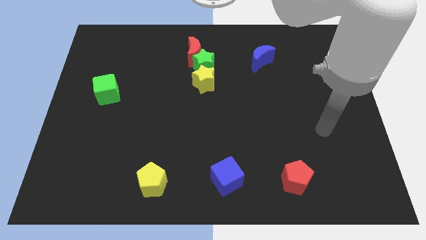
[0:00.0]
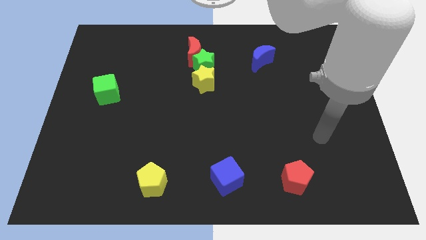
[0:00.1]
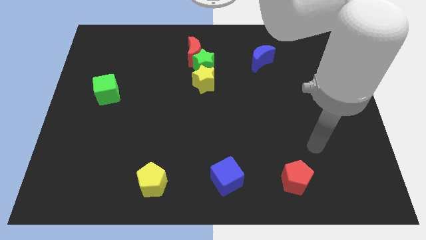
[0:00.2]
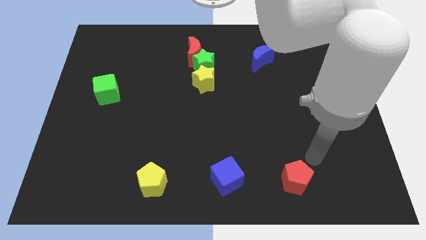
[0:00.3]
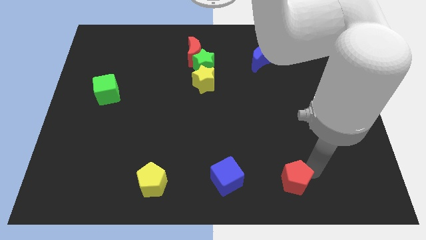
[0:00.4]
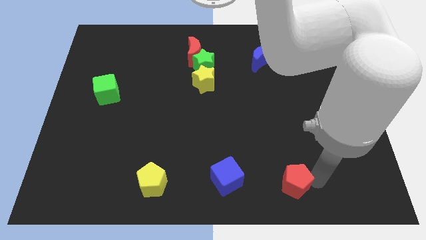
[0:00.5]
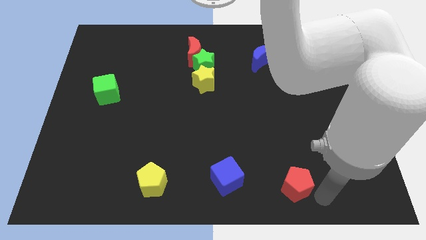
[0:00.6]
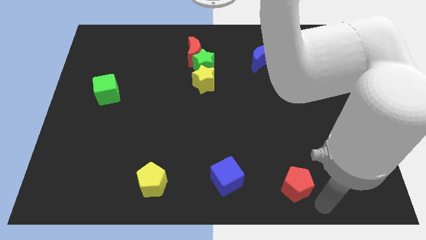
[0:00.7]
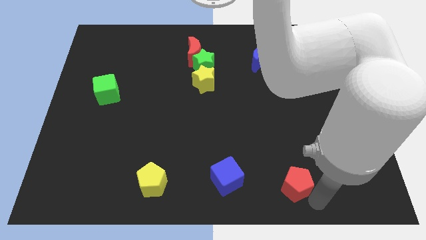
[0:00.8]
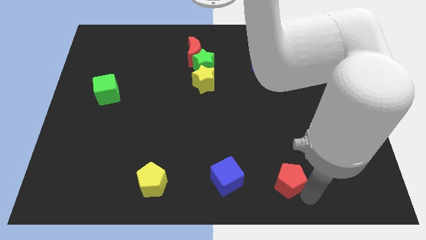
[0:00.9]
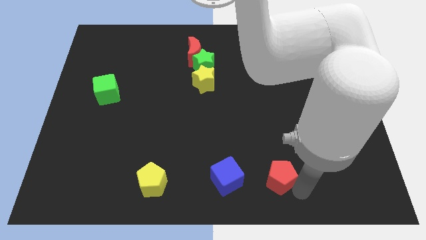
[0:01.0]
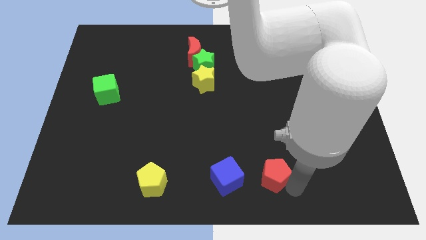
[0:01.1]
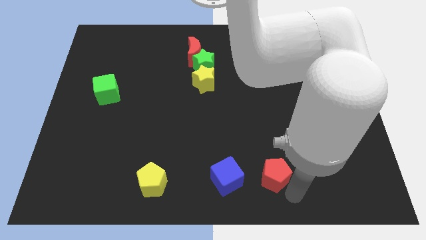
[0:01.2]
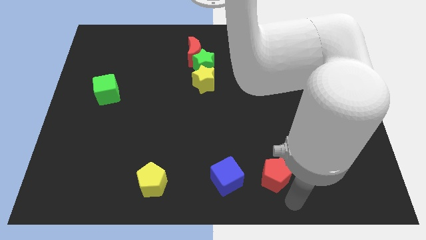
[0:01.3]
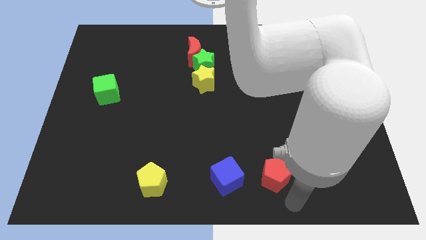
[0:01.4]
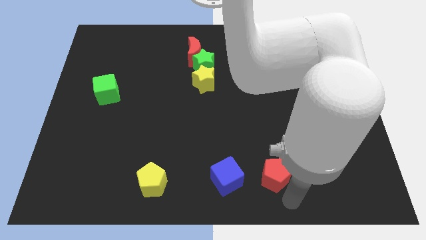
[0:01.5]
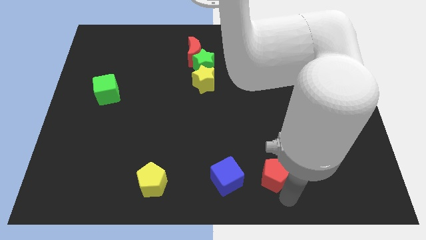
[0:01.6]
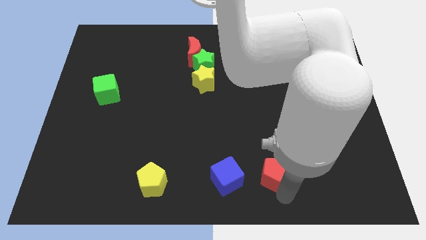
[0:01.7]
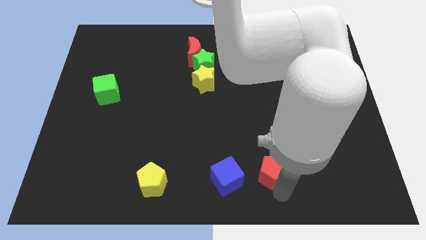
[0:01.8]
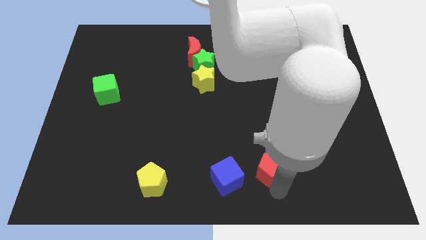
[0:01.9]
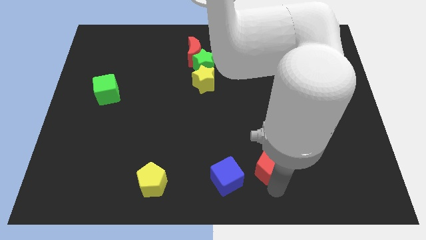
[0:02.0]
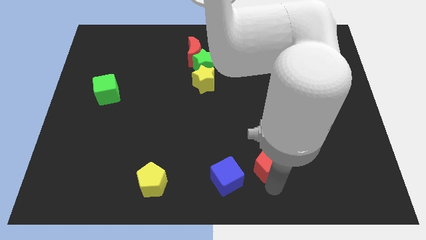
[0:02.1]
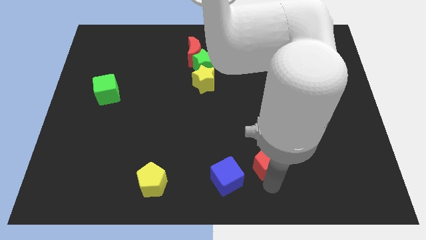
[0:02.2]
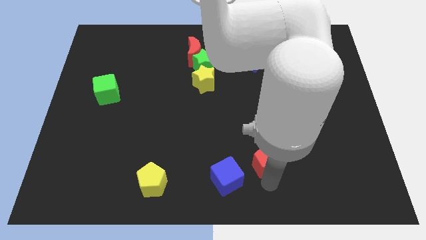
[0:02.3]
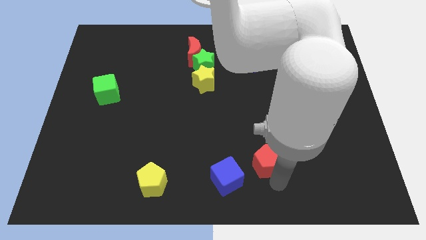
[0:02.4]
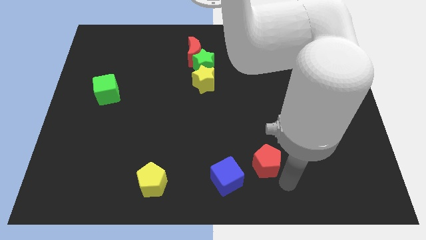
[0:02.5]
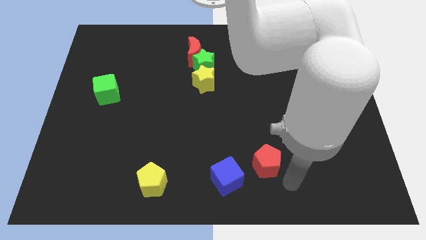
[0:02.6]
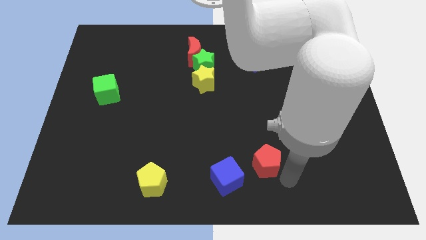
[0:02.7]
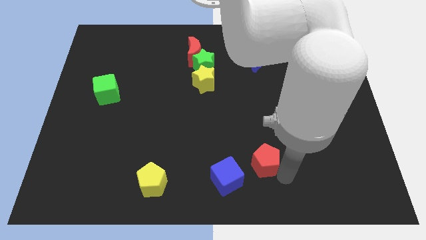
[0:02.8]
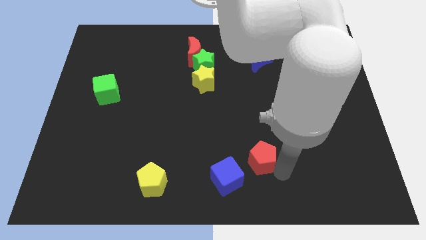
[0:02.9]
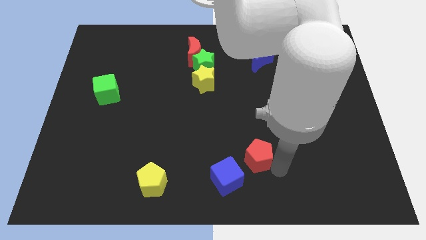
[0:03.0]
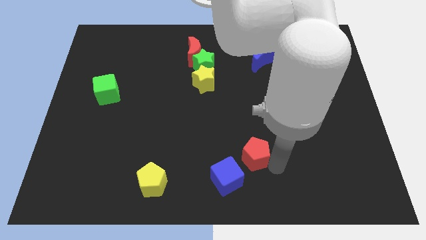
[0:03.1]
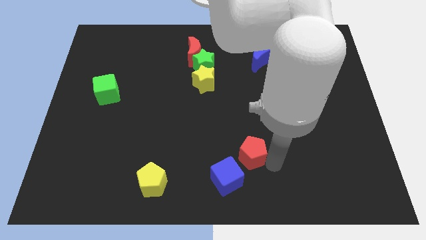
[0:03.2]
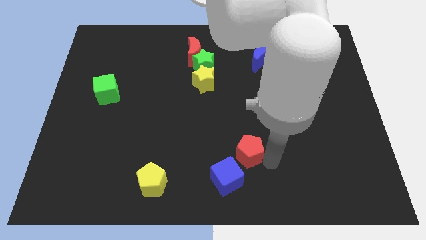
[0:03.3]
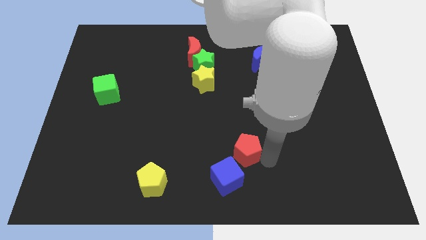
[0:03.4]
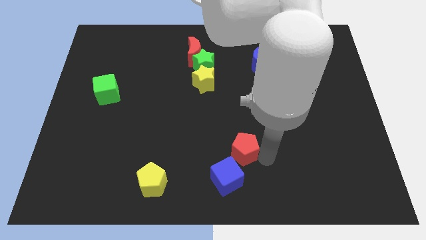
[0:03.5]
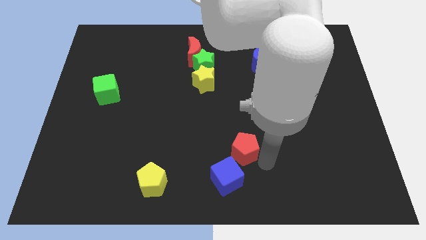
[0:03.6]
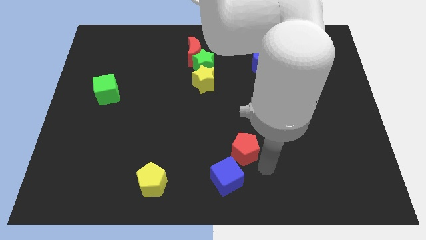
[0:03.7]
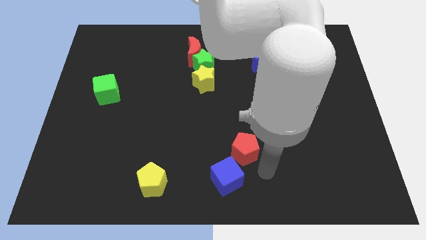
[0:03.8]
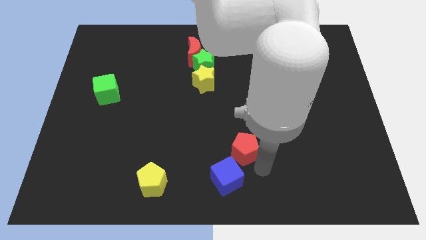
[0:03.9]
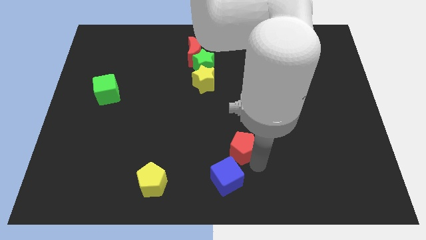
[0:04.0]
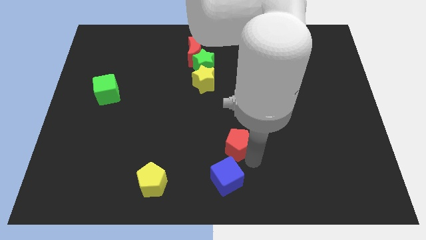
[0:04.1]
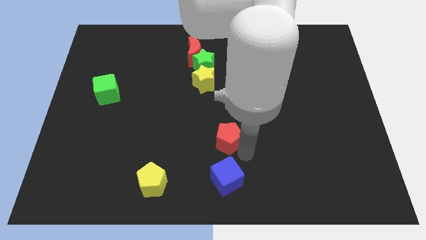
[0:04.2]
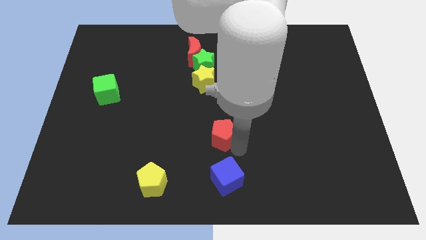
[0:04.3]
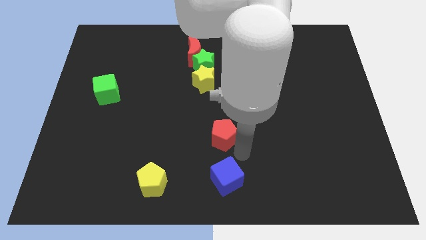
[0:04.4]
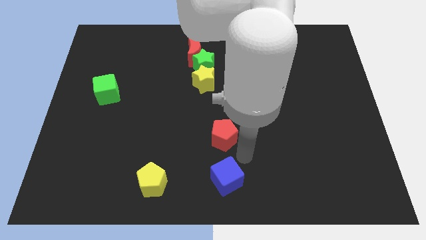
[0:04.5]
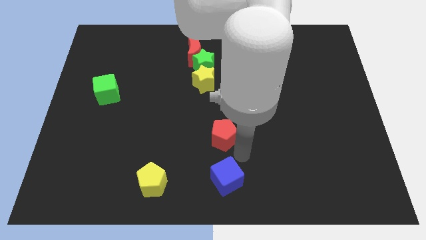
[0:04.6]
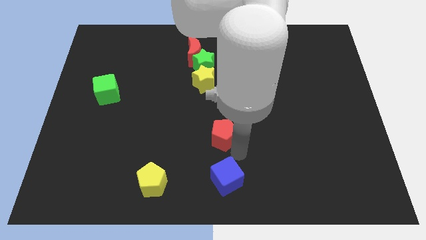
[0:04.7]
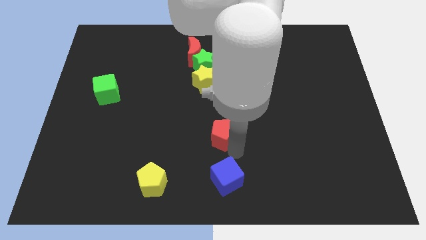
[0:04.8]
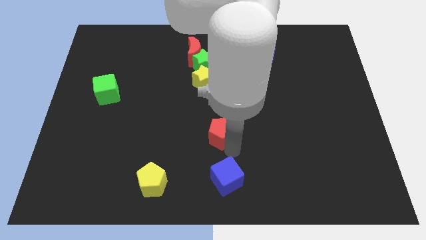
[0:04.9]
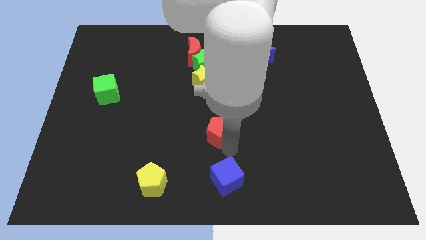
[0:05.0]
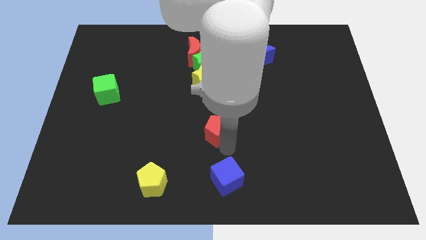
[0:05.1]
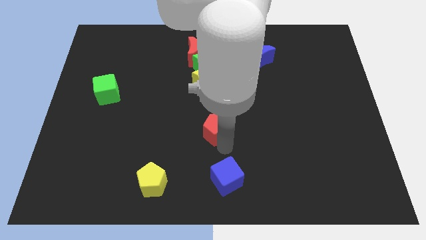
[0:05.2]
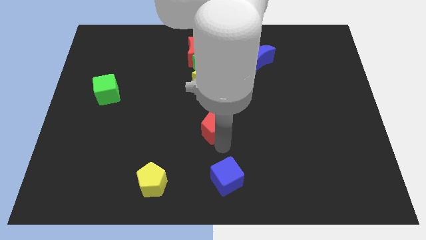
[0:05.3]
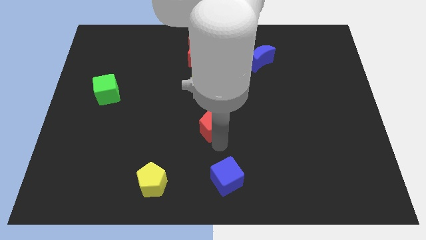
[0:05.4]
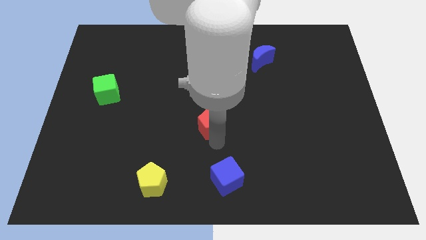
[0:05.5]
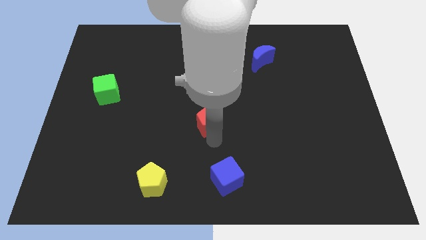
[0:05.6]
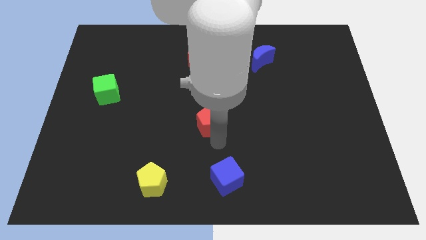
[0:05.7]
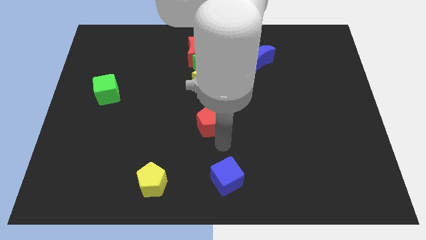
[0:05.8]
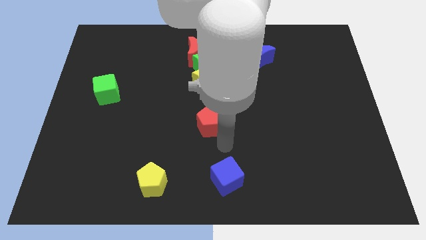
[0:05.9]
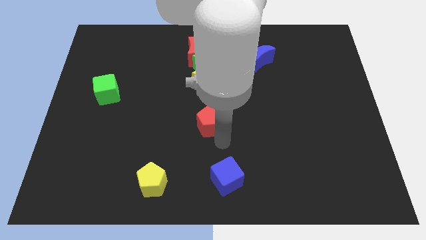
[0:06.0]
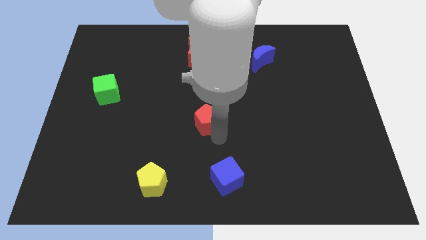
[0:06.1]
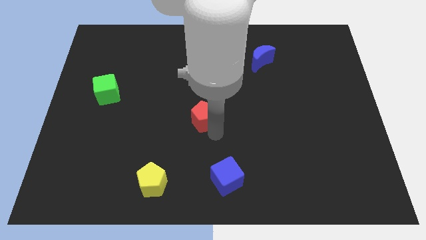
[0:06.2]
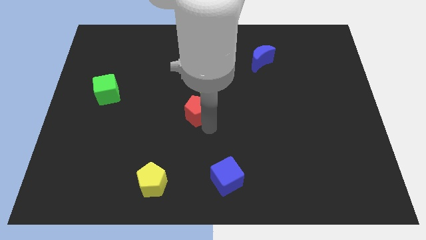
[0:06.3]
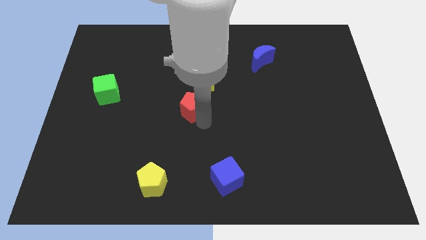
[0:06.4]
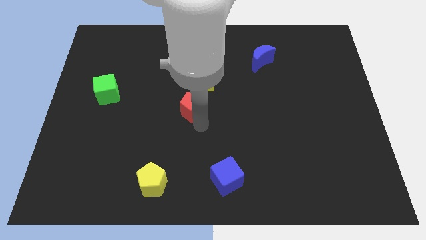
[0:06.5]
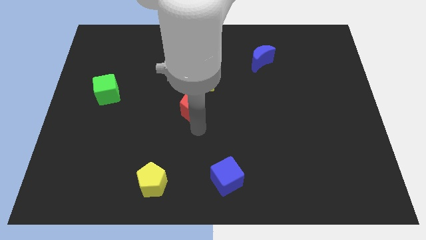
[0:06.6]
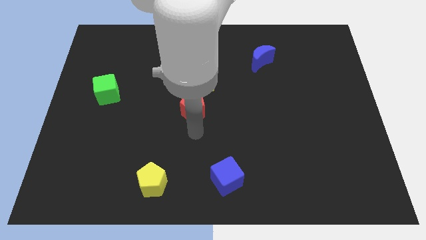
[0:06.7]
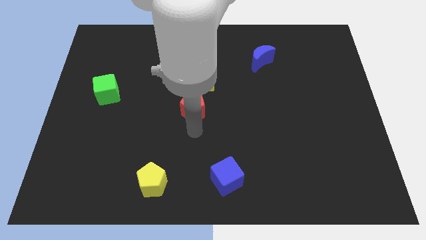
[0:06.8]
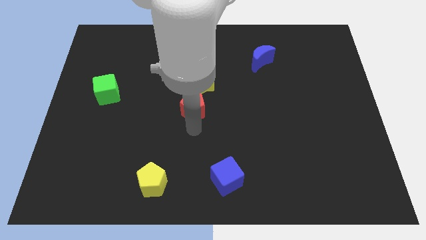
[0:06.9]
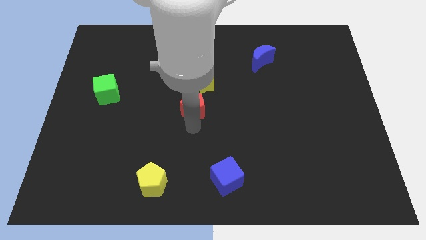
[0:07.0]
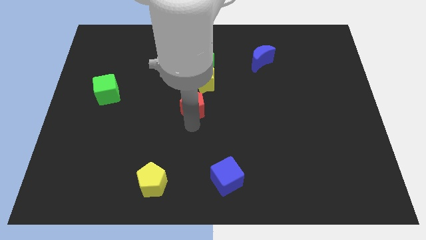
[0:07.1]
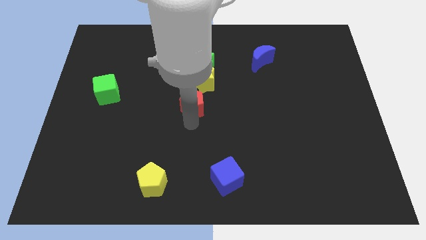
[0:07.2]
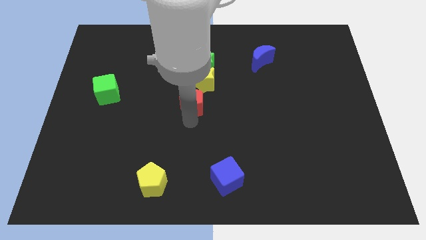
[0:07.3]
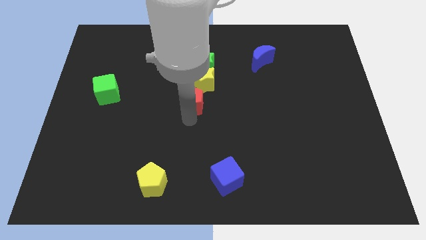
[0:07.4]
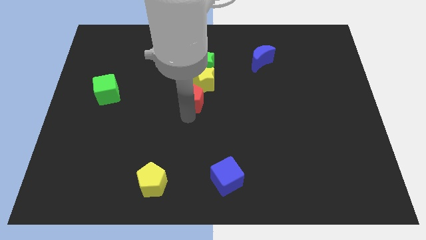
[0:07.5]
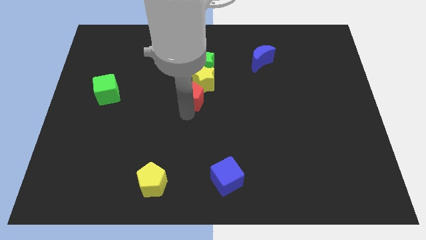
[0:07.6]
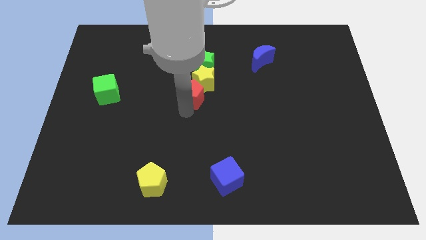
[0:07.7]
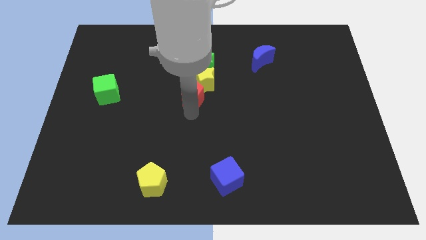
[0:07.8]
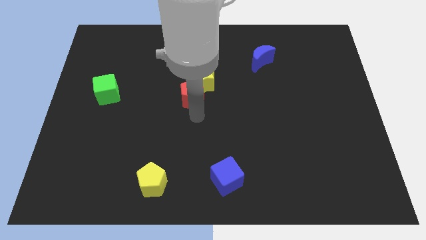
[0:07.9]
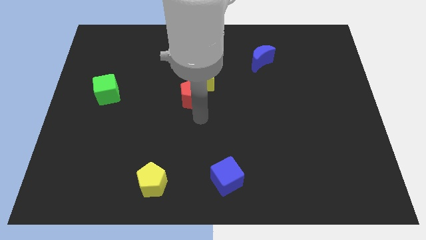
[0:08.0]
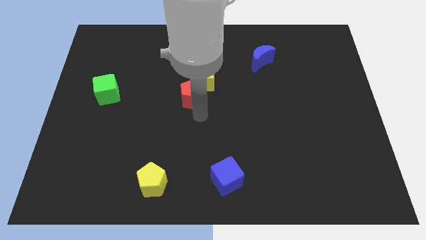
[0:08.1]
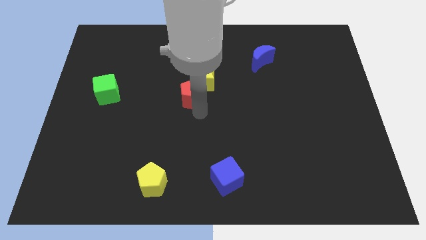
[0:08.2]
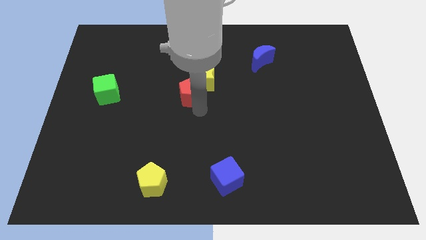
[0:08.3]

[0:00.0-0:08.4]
slide the red pentagon to the bottom left of the green star
